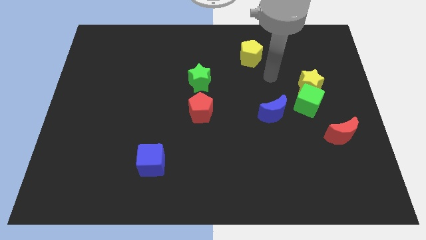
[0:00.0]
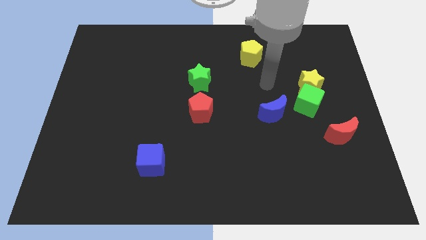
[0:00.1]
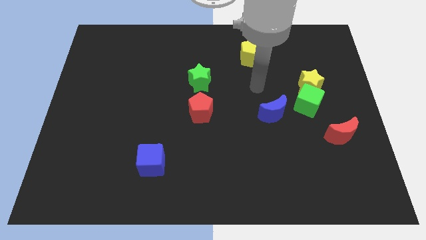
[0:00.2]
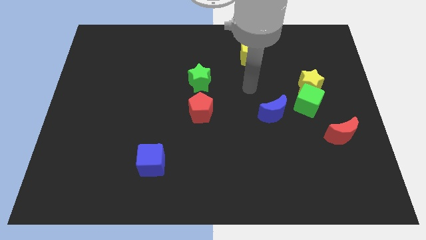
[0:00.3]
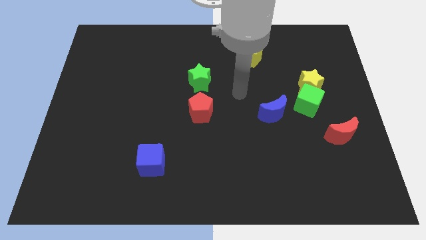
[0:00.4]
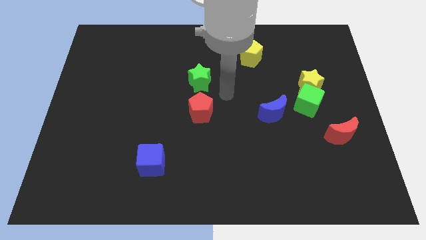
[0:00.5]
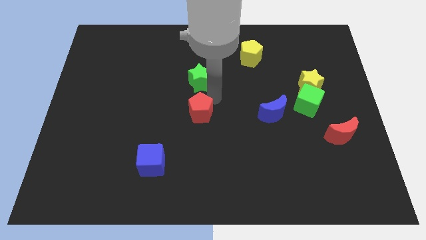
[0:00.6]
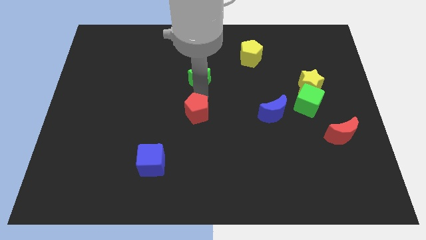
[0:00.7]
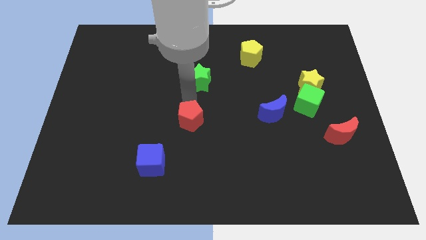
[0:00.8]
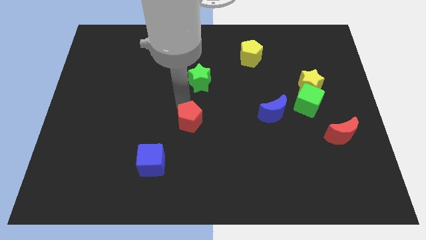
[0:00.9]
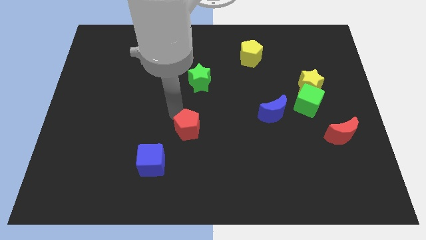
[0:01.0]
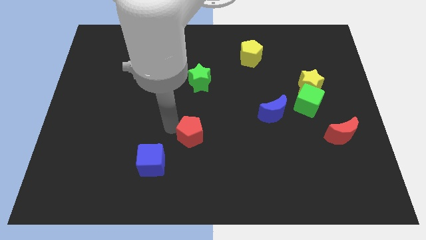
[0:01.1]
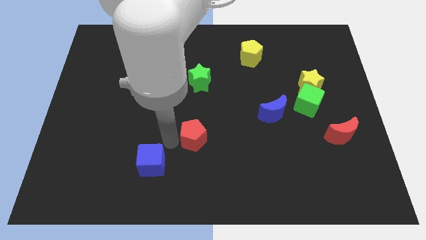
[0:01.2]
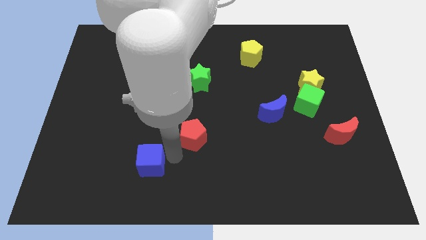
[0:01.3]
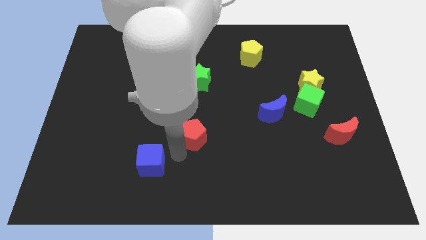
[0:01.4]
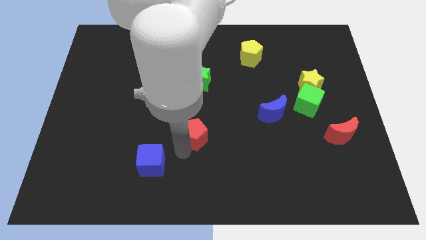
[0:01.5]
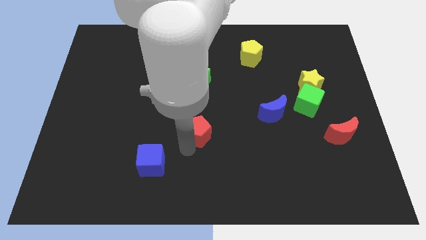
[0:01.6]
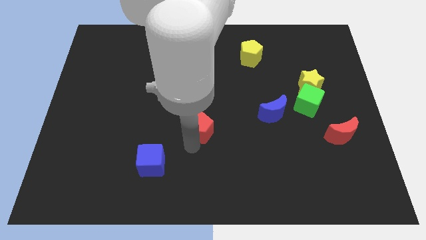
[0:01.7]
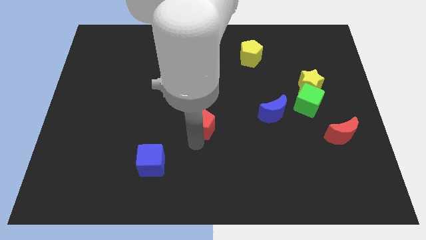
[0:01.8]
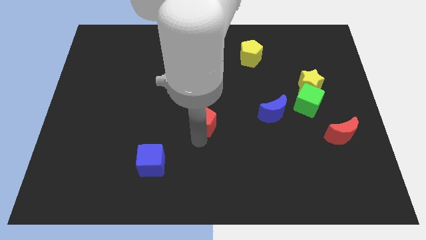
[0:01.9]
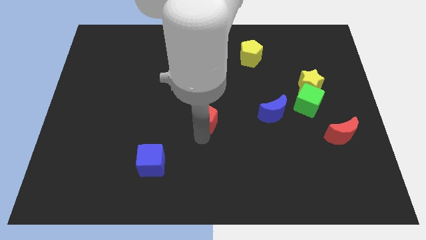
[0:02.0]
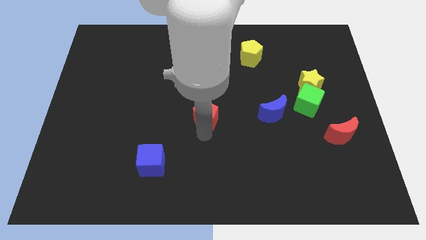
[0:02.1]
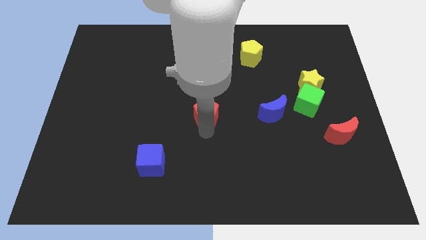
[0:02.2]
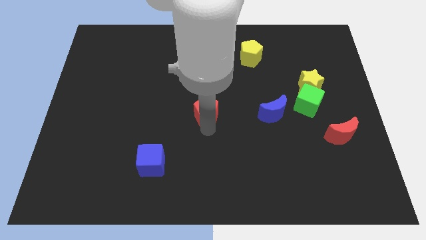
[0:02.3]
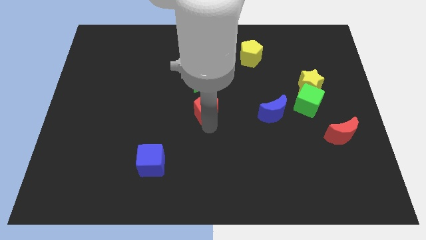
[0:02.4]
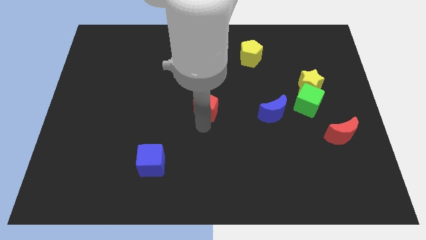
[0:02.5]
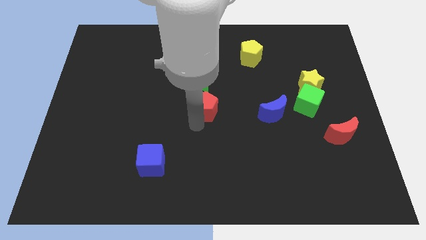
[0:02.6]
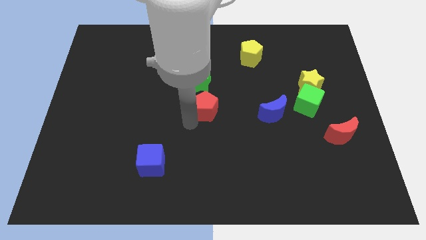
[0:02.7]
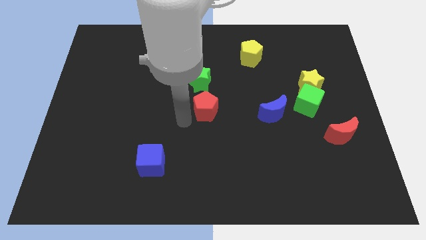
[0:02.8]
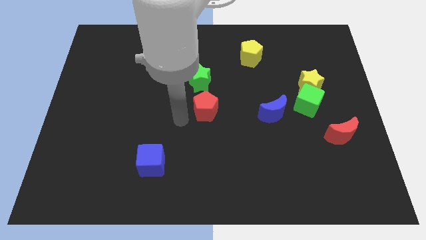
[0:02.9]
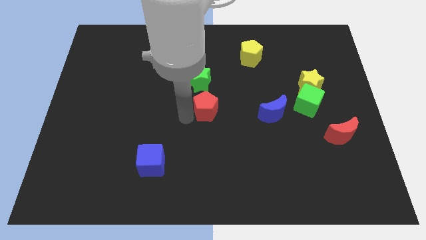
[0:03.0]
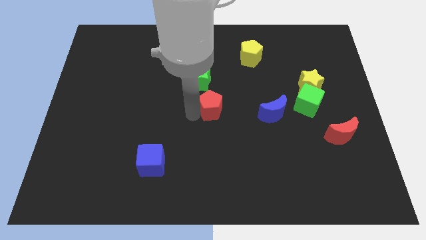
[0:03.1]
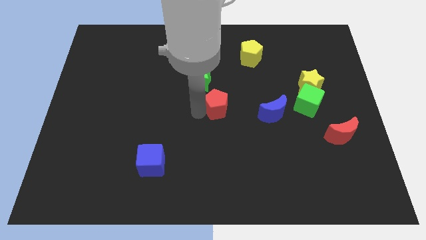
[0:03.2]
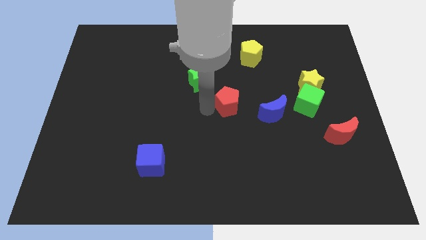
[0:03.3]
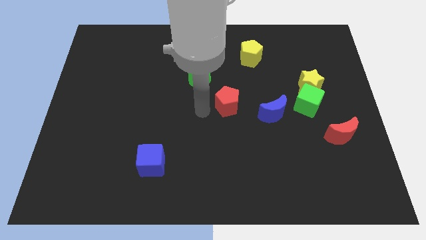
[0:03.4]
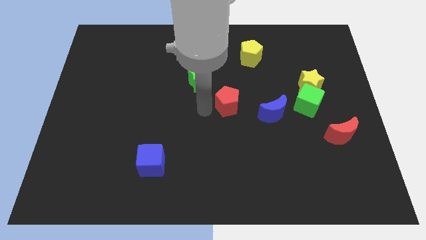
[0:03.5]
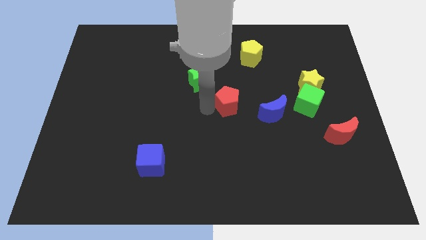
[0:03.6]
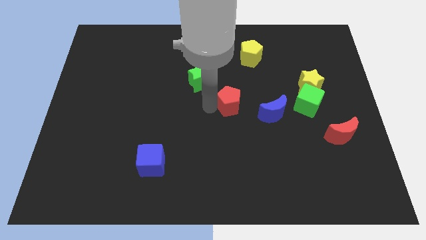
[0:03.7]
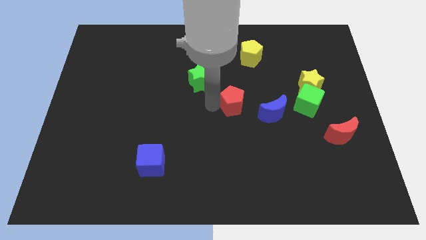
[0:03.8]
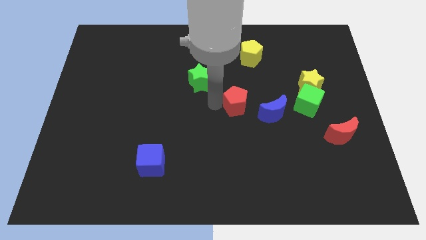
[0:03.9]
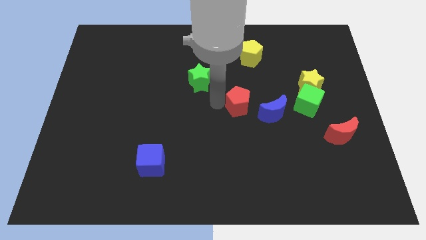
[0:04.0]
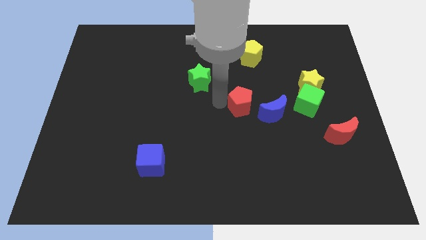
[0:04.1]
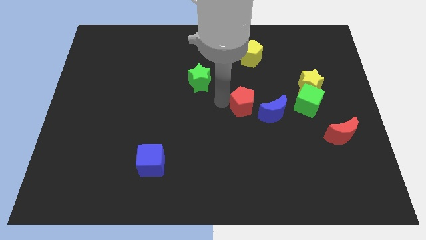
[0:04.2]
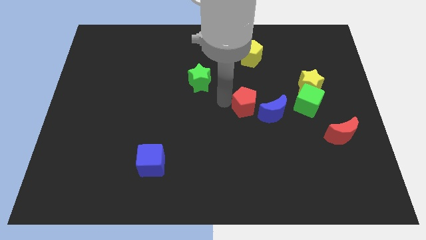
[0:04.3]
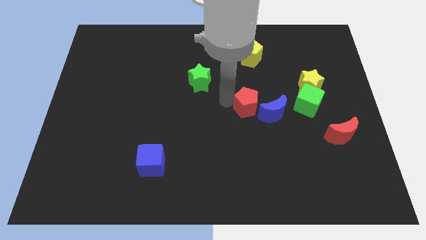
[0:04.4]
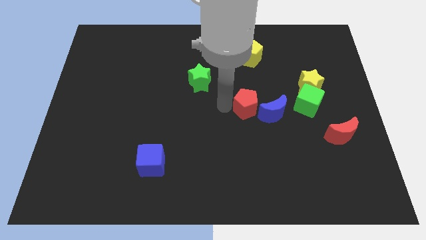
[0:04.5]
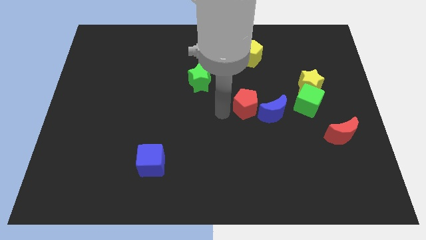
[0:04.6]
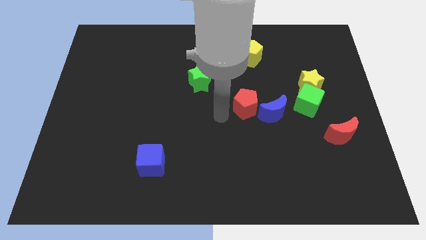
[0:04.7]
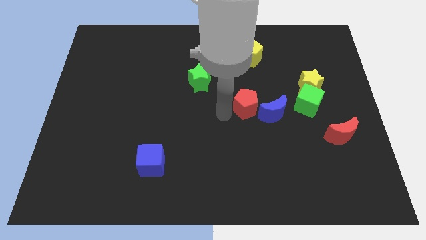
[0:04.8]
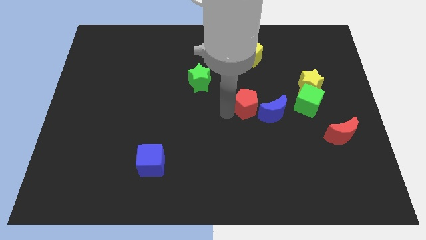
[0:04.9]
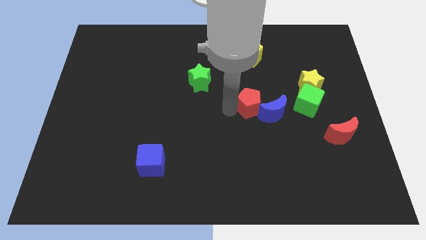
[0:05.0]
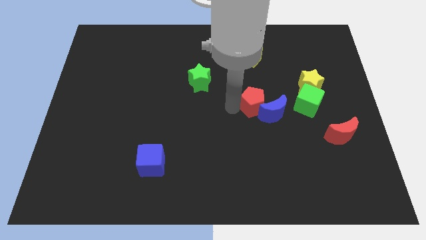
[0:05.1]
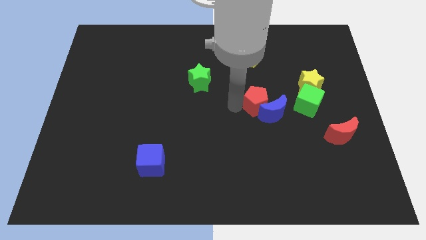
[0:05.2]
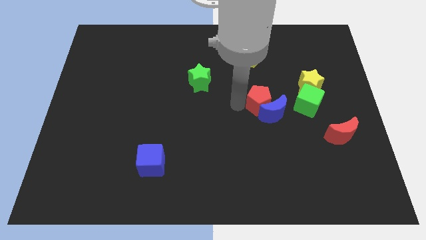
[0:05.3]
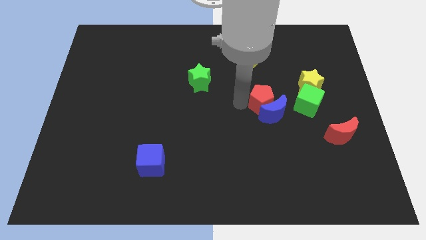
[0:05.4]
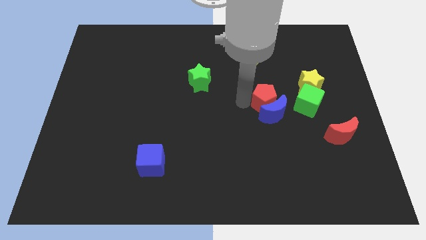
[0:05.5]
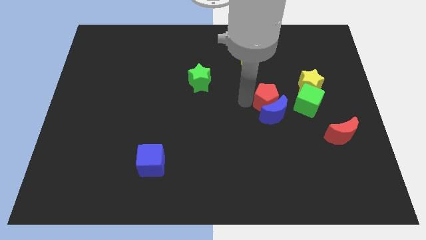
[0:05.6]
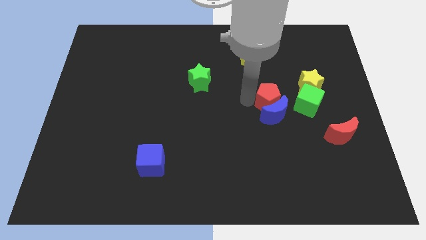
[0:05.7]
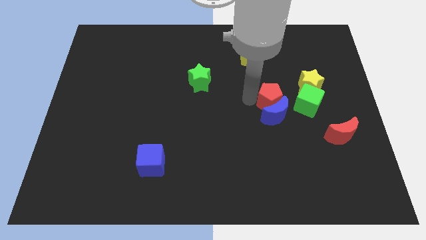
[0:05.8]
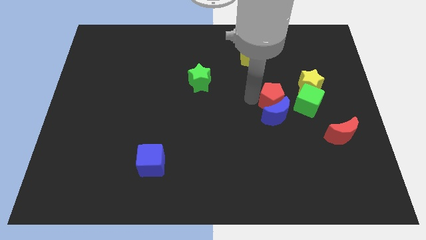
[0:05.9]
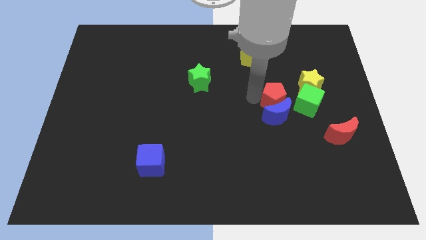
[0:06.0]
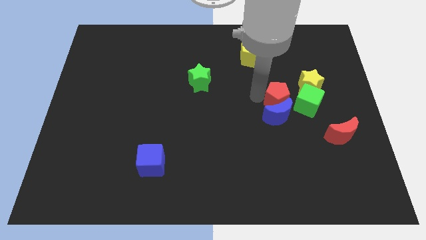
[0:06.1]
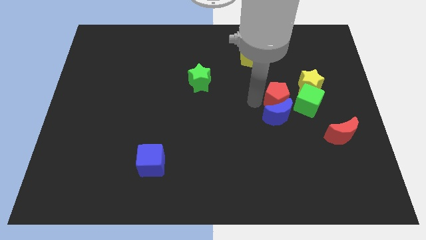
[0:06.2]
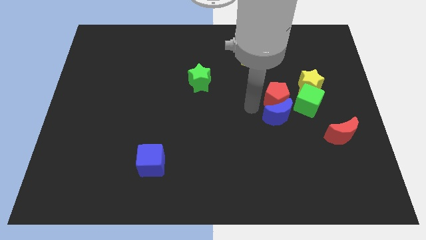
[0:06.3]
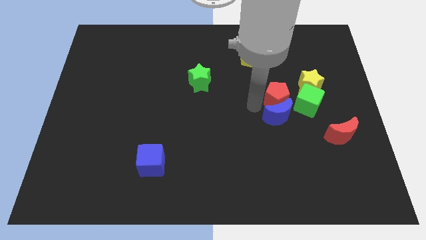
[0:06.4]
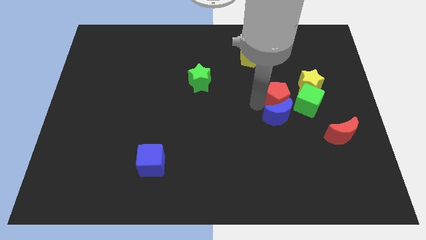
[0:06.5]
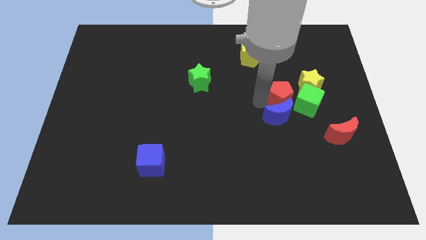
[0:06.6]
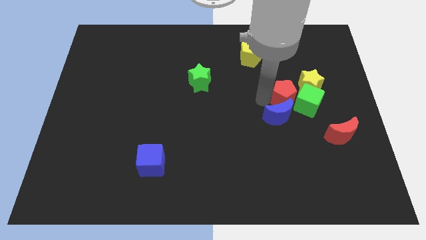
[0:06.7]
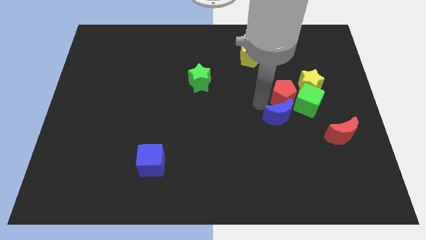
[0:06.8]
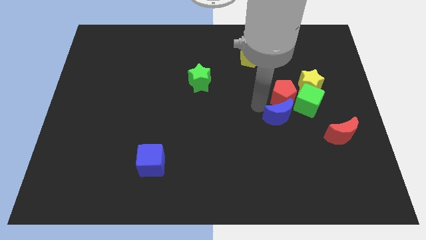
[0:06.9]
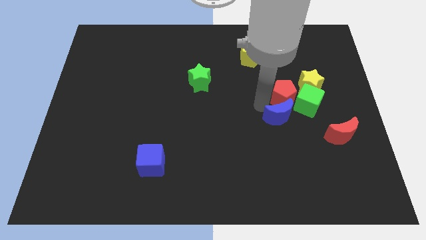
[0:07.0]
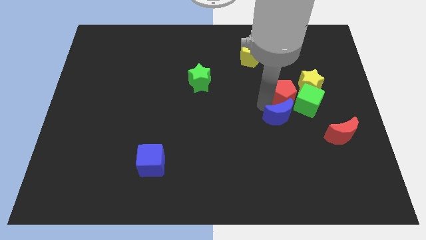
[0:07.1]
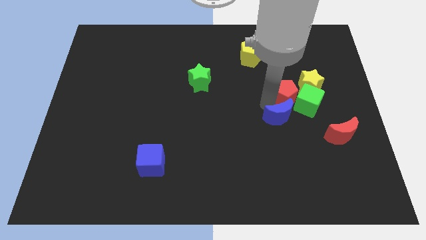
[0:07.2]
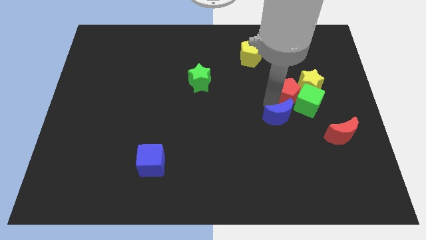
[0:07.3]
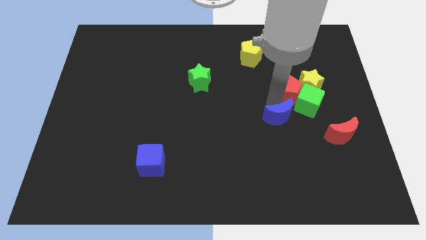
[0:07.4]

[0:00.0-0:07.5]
slide the red pentagon next to the yellow star

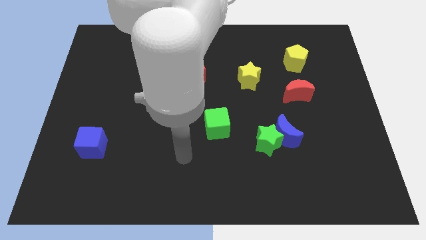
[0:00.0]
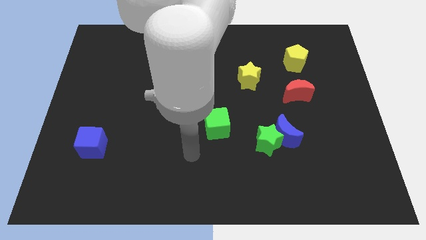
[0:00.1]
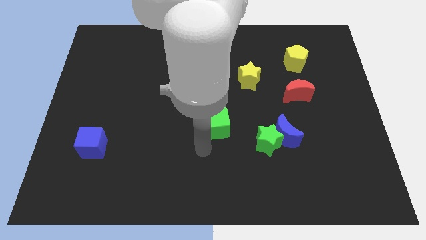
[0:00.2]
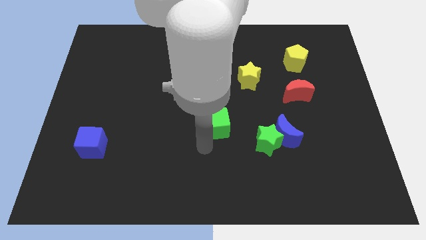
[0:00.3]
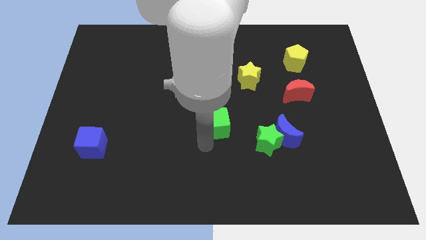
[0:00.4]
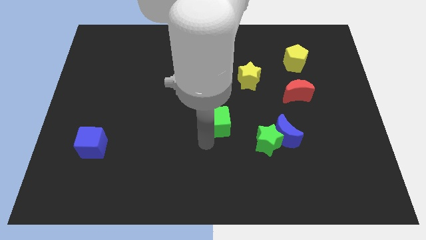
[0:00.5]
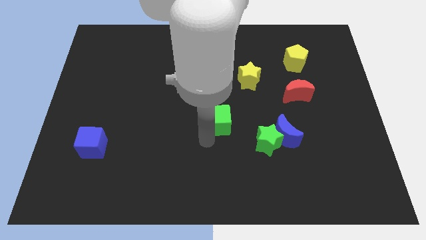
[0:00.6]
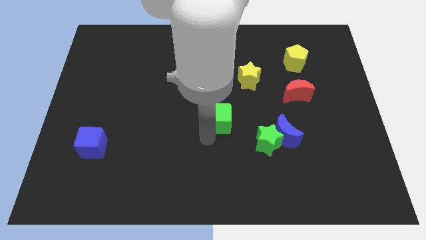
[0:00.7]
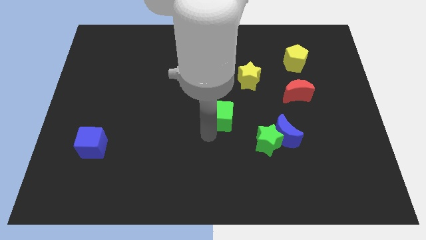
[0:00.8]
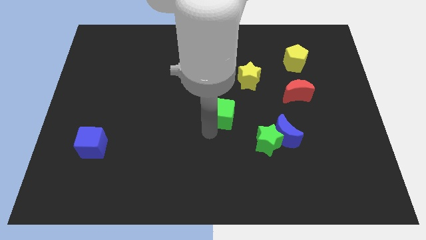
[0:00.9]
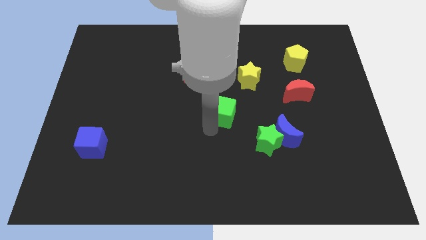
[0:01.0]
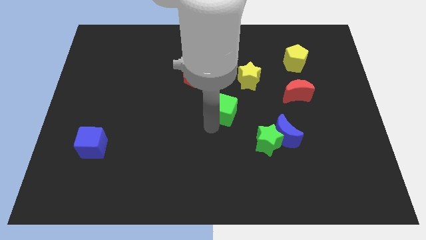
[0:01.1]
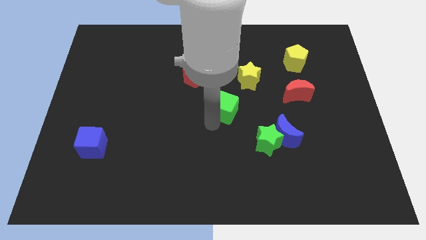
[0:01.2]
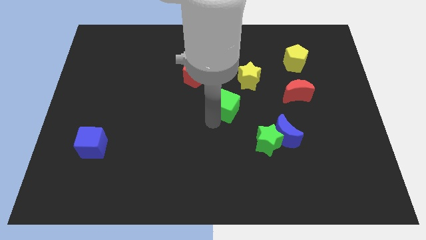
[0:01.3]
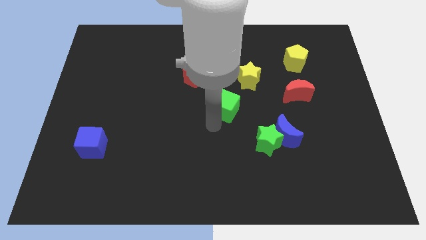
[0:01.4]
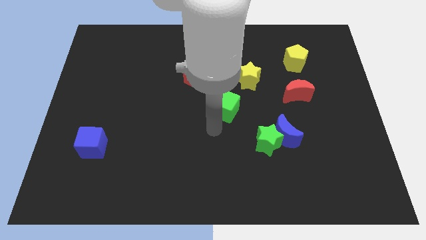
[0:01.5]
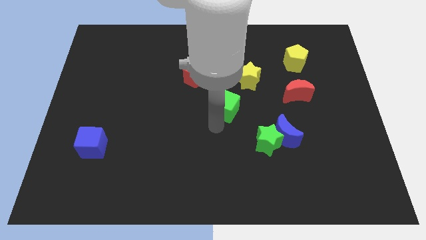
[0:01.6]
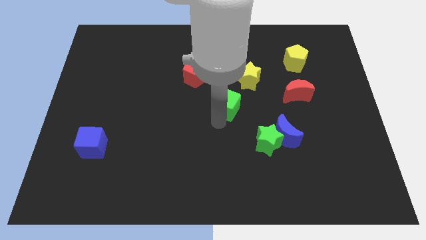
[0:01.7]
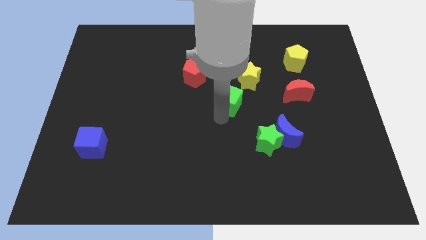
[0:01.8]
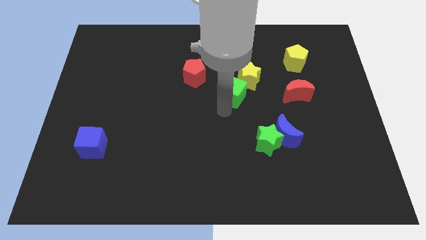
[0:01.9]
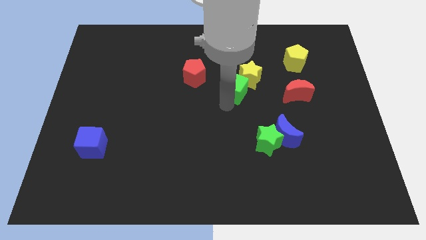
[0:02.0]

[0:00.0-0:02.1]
move the green cube close to the yellow star
